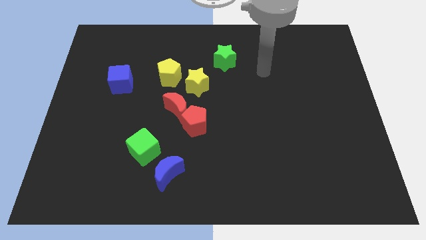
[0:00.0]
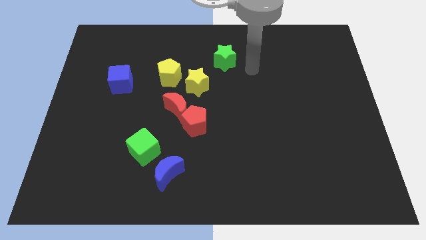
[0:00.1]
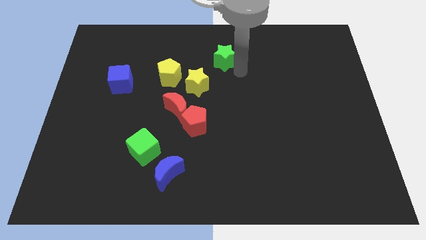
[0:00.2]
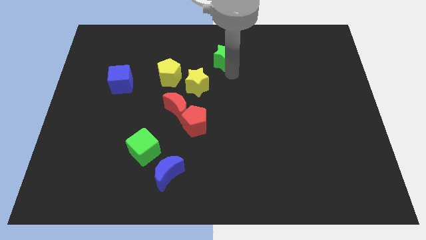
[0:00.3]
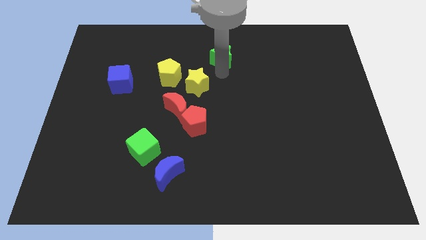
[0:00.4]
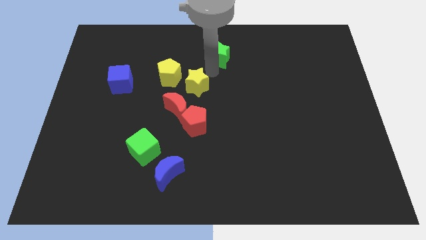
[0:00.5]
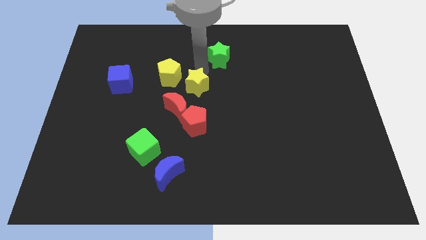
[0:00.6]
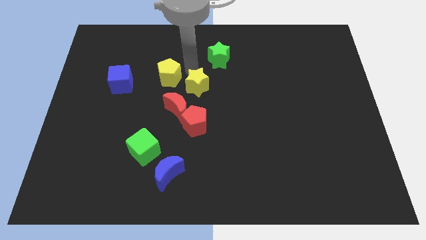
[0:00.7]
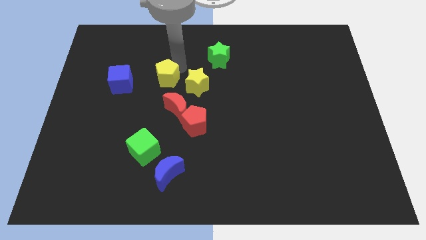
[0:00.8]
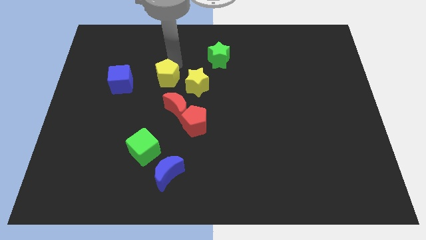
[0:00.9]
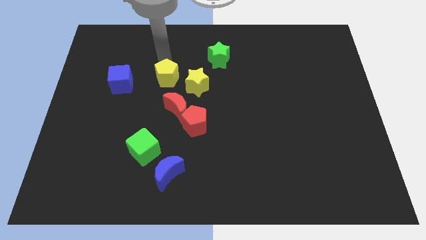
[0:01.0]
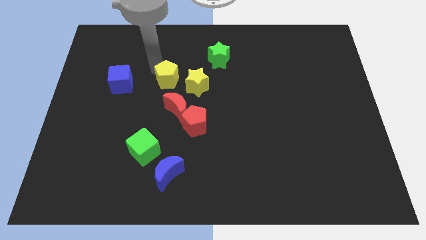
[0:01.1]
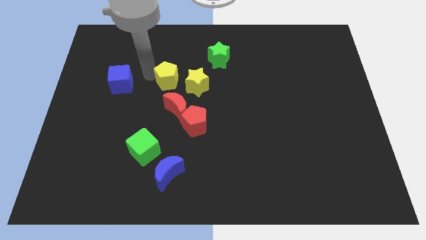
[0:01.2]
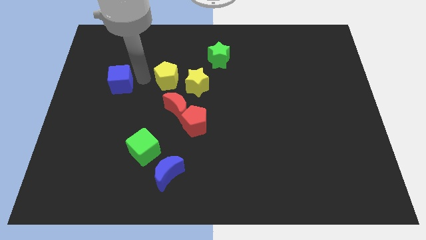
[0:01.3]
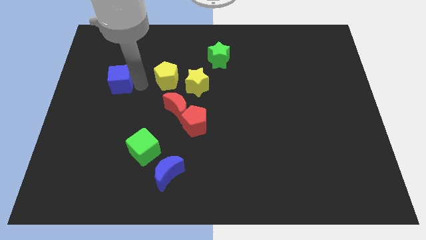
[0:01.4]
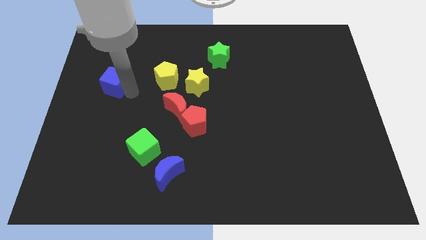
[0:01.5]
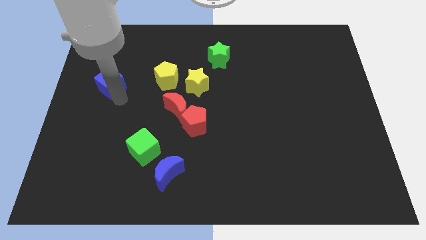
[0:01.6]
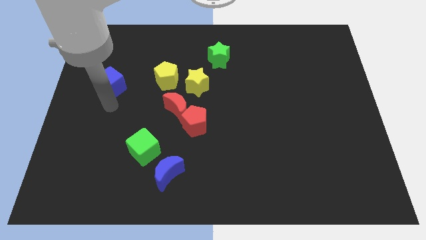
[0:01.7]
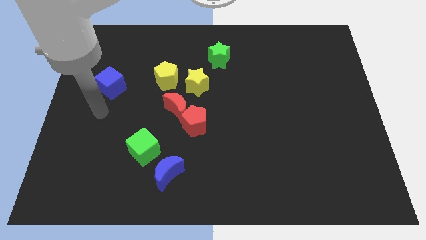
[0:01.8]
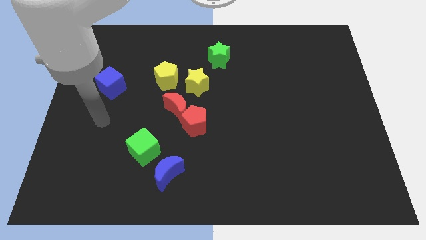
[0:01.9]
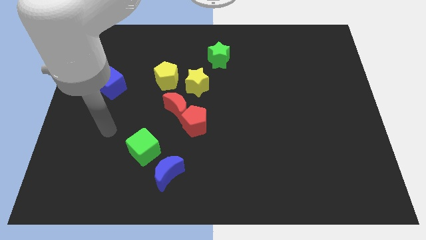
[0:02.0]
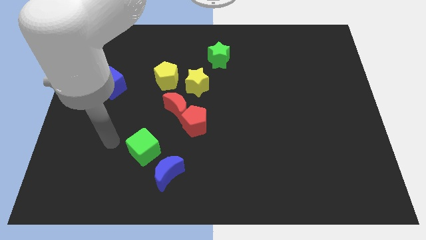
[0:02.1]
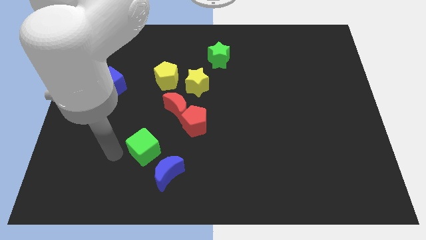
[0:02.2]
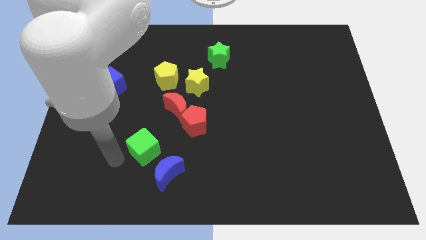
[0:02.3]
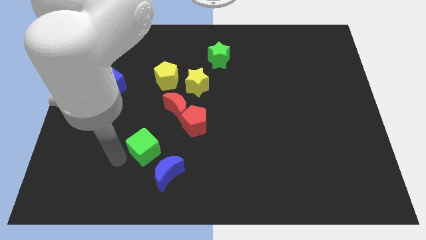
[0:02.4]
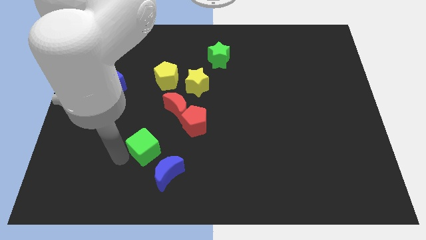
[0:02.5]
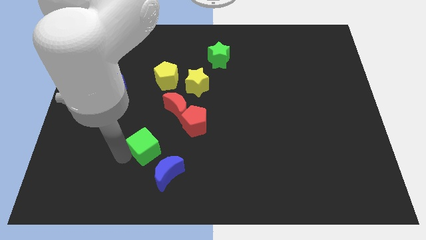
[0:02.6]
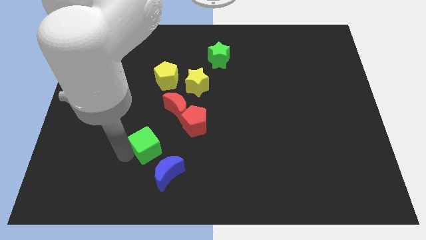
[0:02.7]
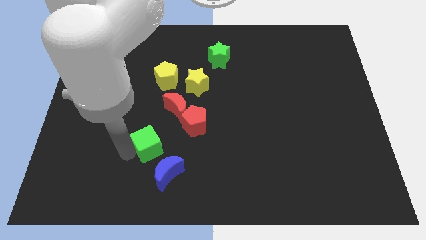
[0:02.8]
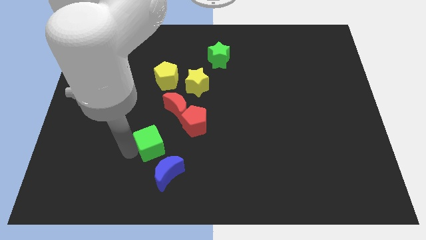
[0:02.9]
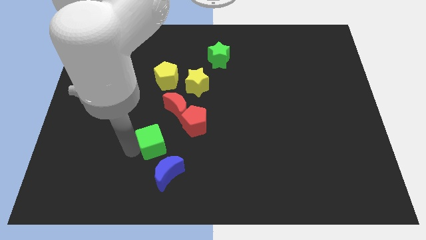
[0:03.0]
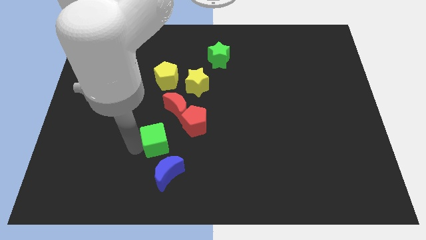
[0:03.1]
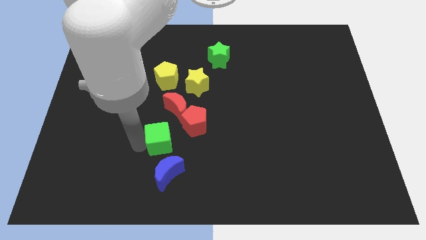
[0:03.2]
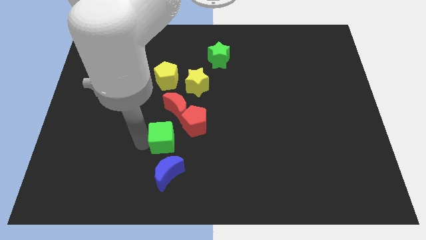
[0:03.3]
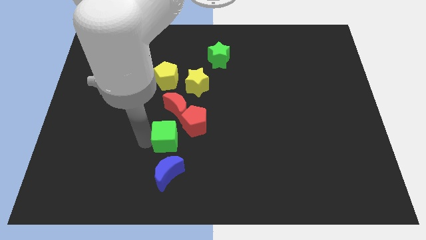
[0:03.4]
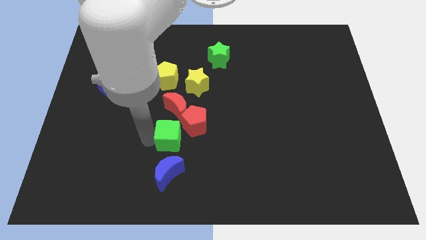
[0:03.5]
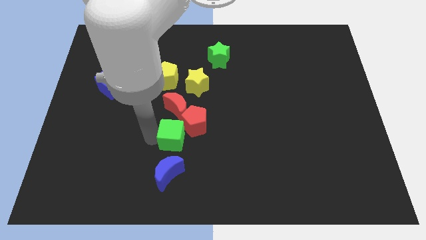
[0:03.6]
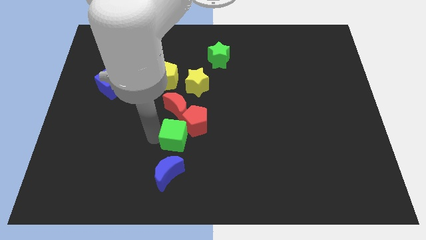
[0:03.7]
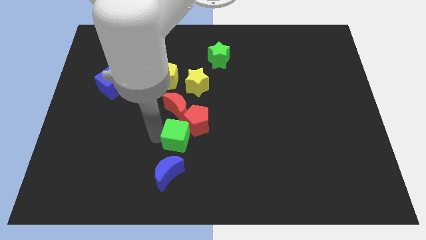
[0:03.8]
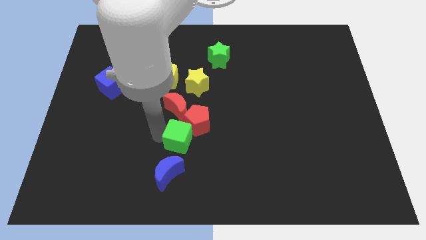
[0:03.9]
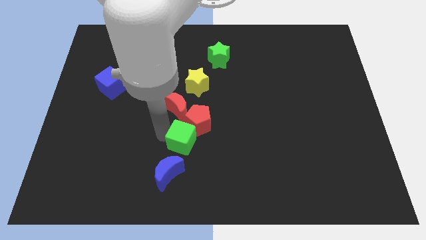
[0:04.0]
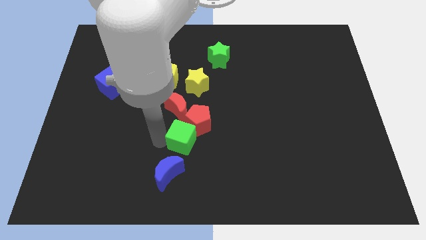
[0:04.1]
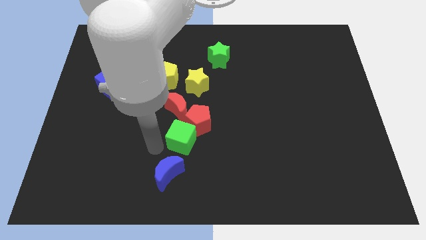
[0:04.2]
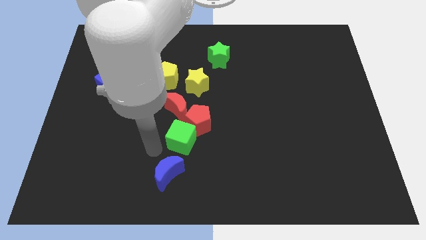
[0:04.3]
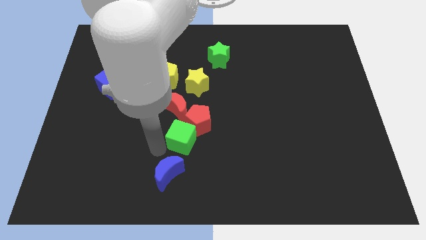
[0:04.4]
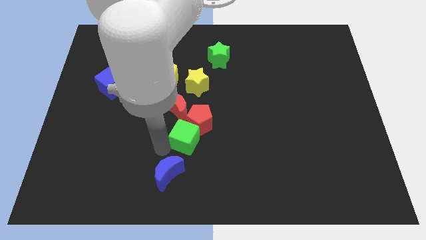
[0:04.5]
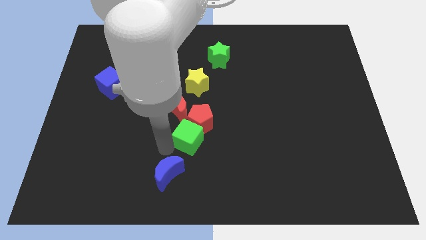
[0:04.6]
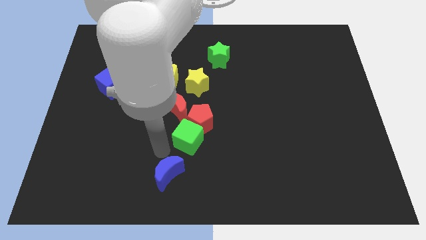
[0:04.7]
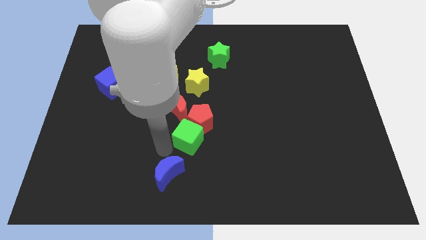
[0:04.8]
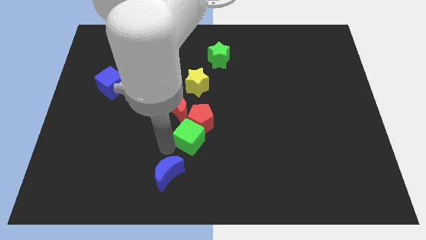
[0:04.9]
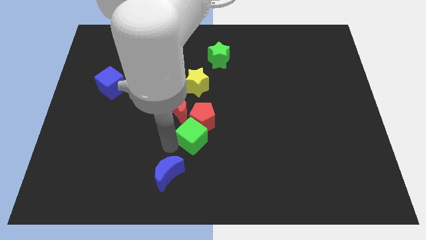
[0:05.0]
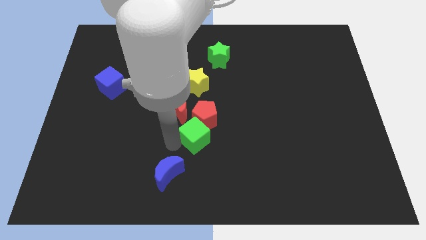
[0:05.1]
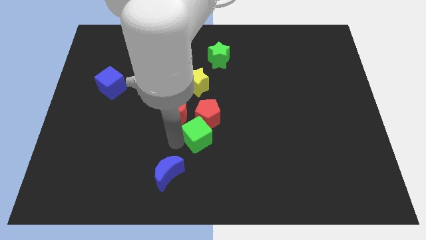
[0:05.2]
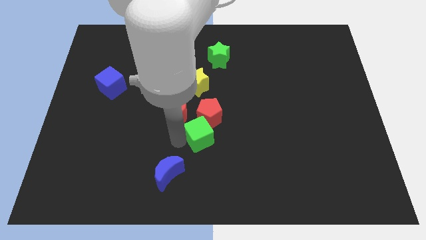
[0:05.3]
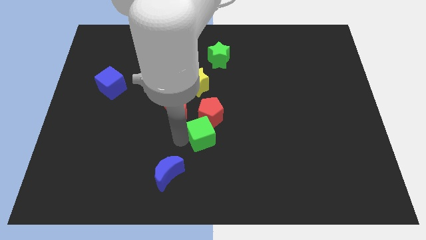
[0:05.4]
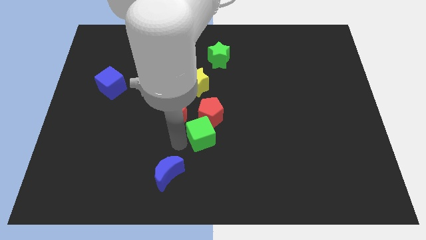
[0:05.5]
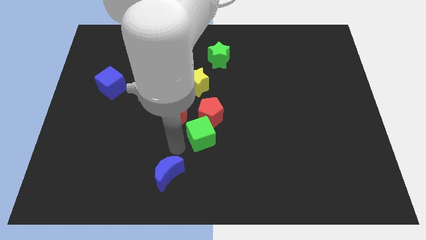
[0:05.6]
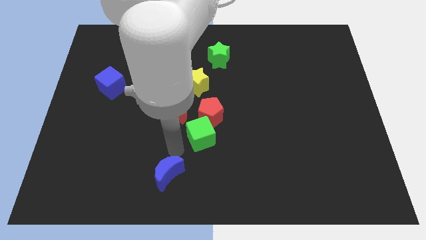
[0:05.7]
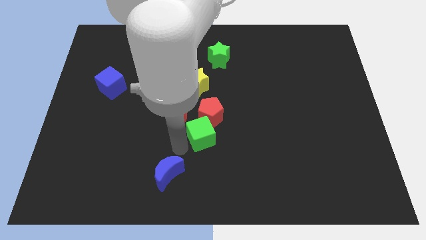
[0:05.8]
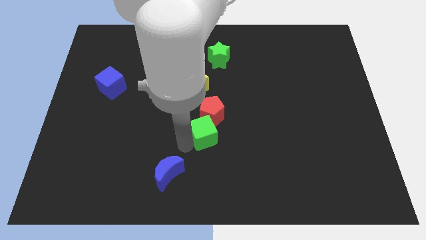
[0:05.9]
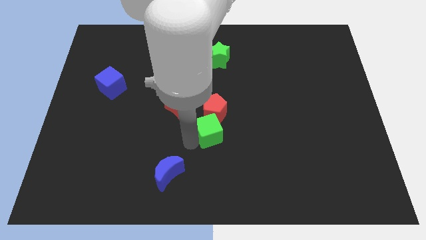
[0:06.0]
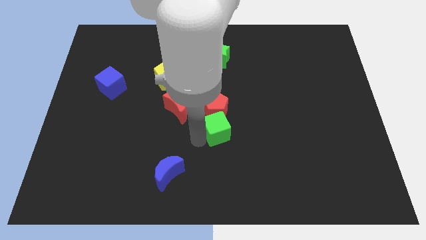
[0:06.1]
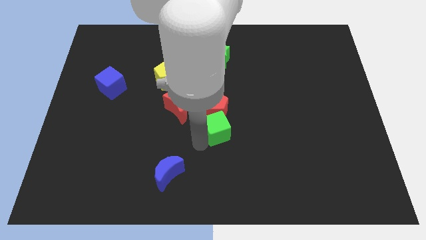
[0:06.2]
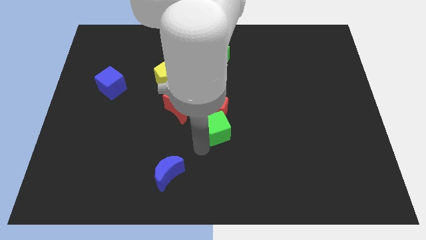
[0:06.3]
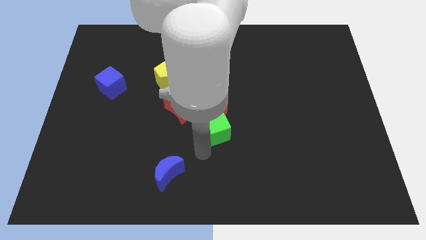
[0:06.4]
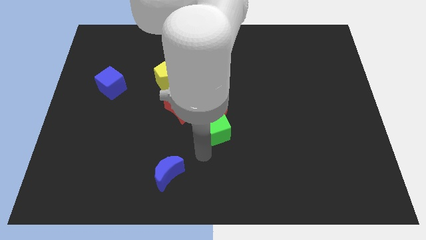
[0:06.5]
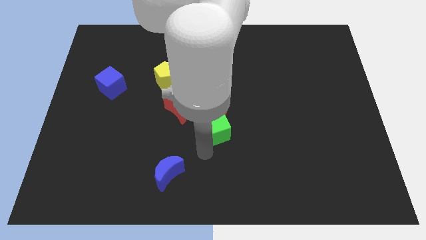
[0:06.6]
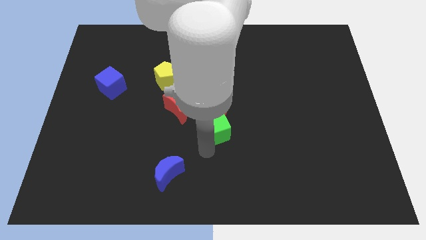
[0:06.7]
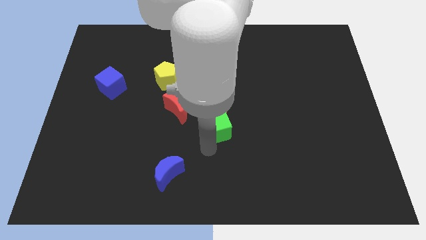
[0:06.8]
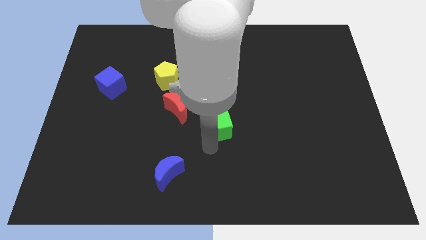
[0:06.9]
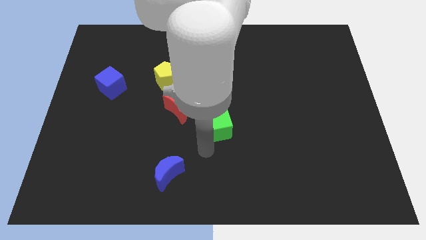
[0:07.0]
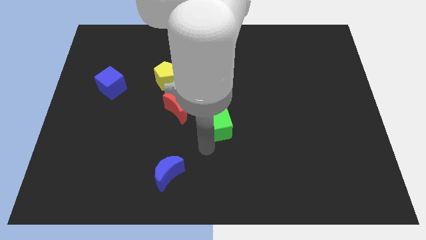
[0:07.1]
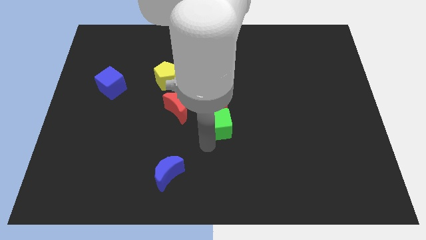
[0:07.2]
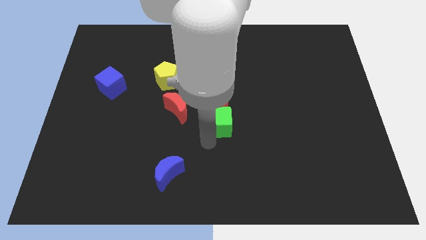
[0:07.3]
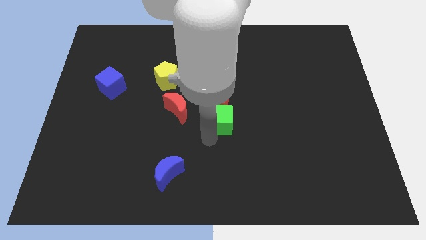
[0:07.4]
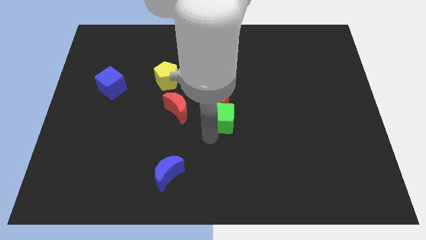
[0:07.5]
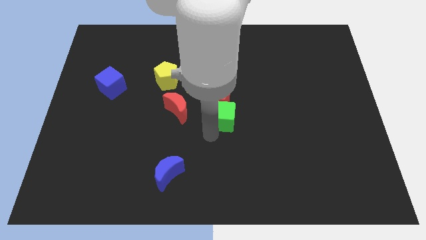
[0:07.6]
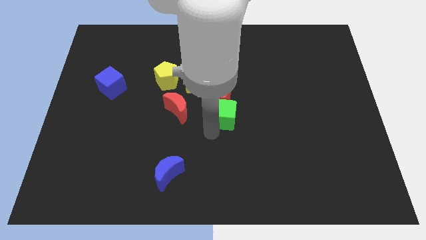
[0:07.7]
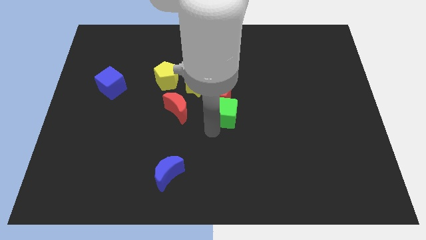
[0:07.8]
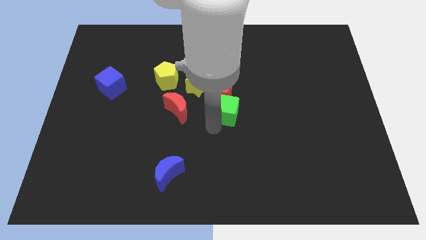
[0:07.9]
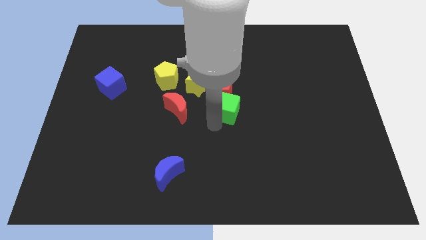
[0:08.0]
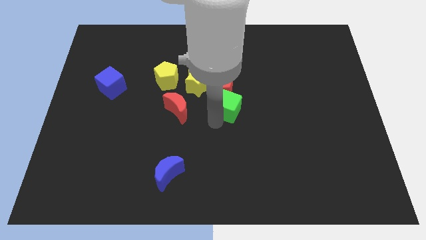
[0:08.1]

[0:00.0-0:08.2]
move the green cube up and right diagonally
